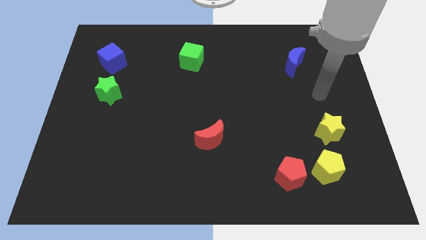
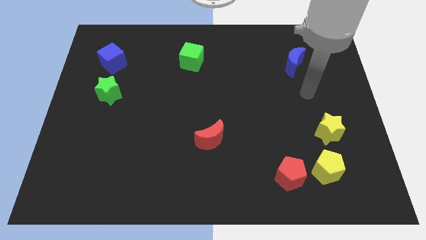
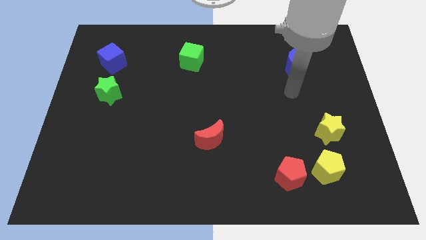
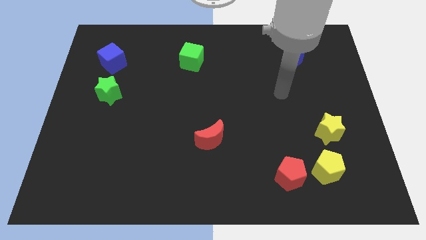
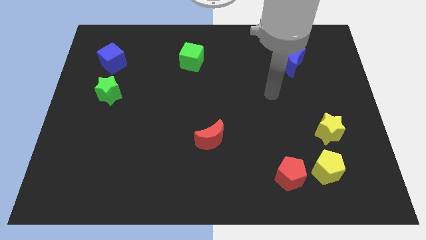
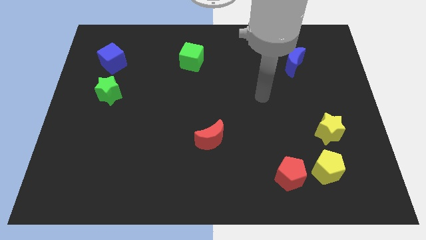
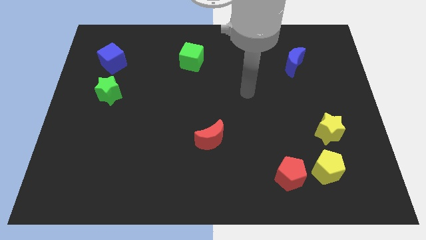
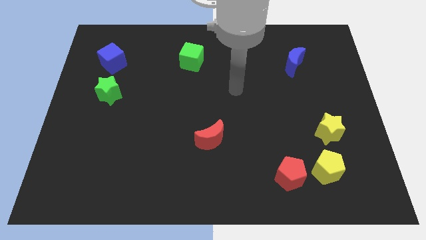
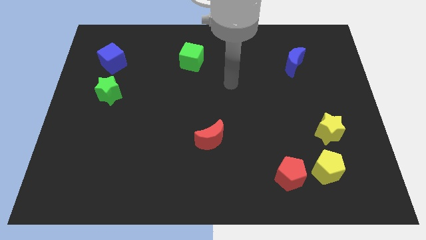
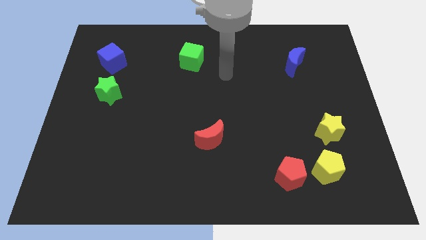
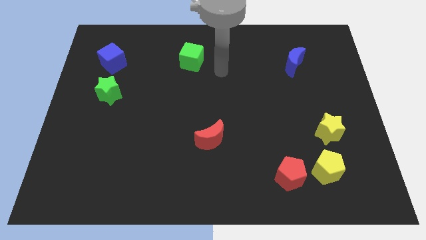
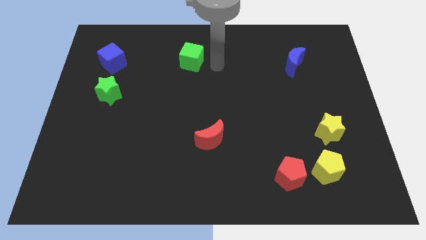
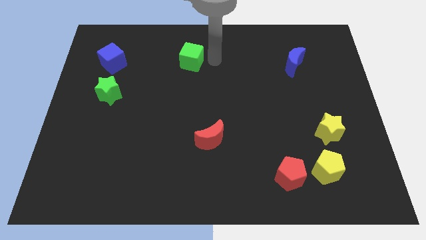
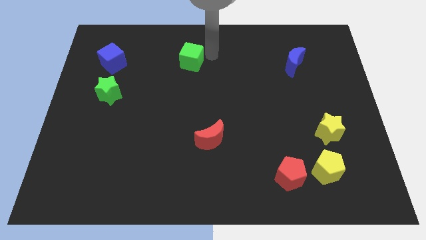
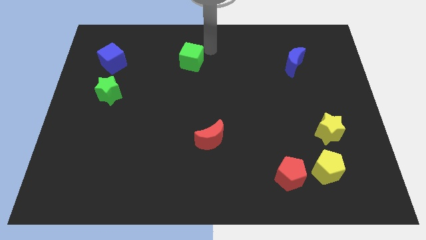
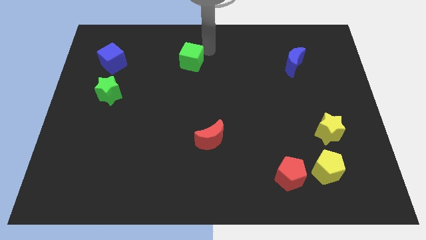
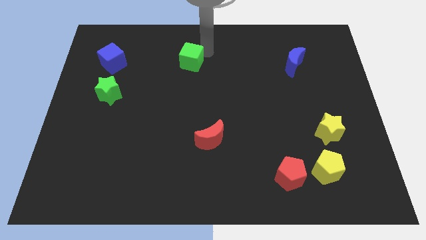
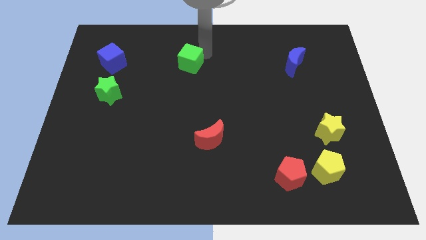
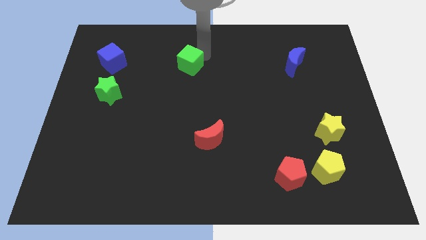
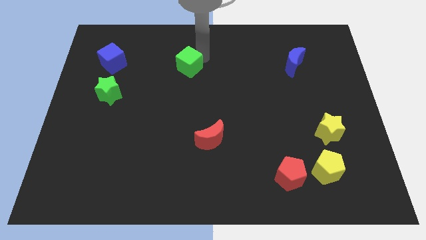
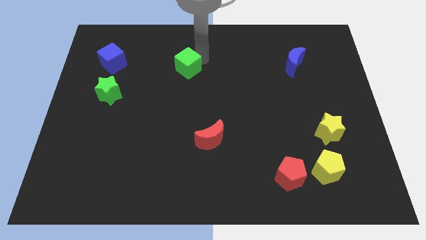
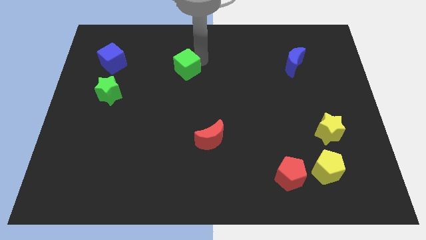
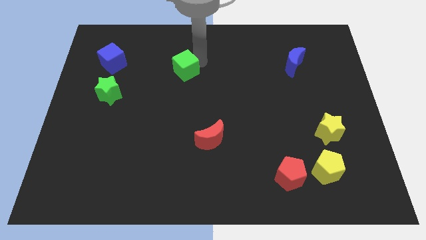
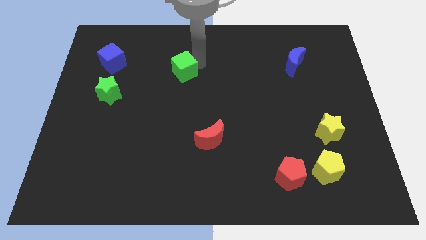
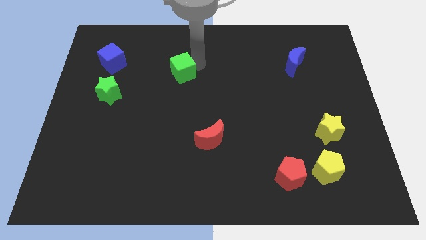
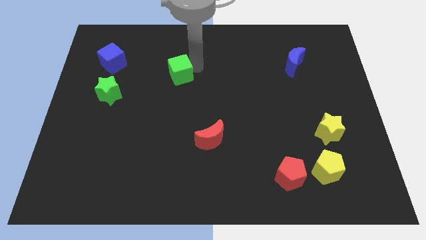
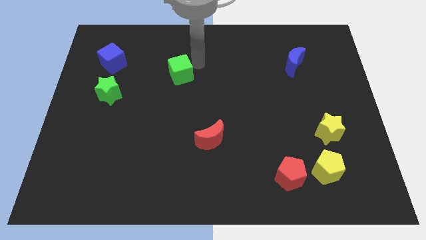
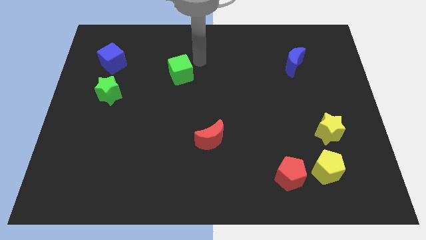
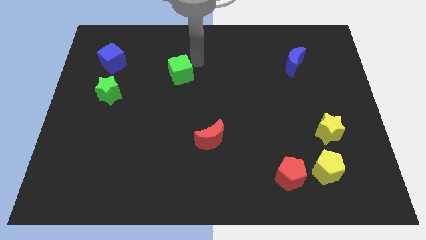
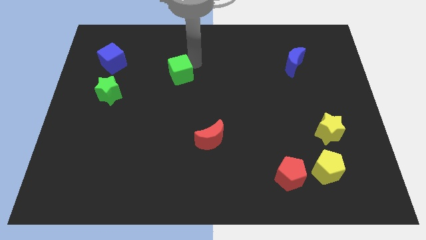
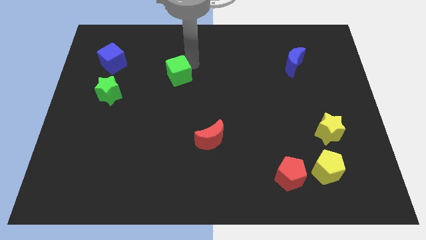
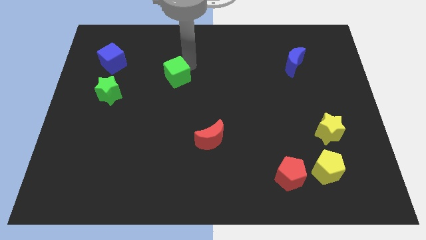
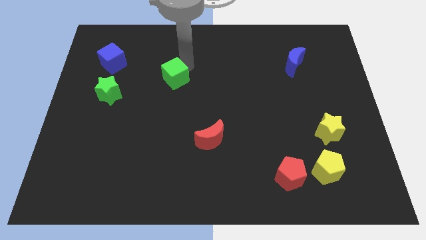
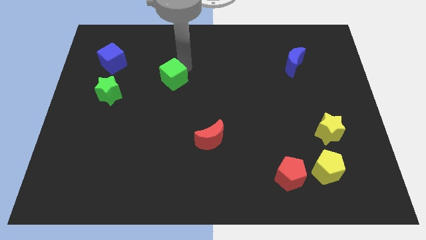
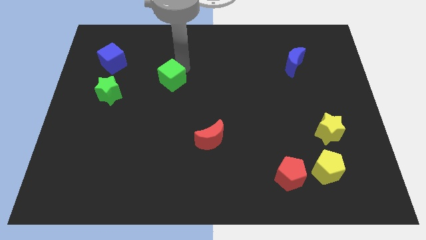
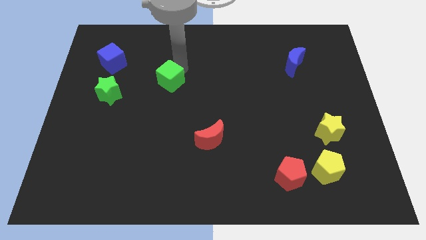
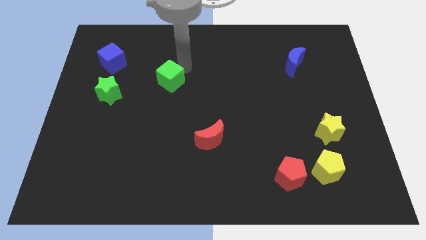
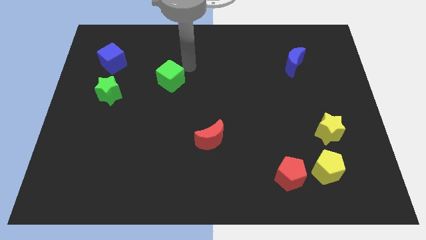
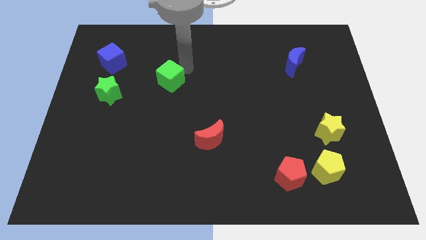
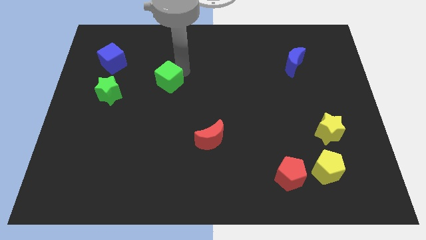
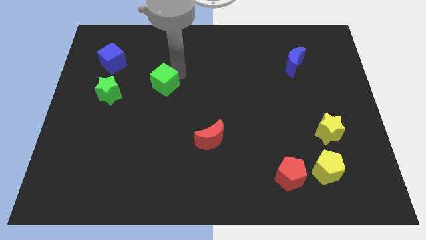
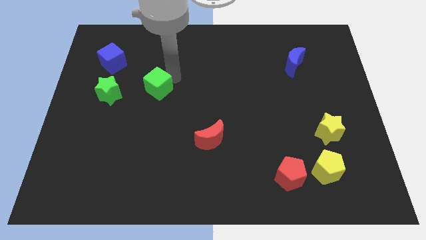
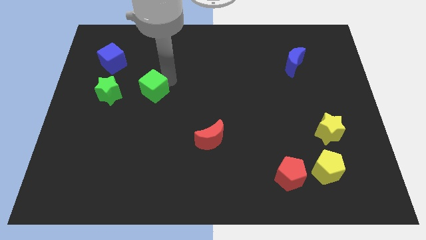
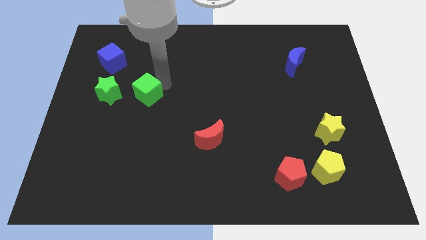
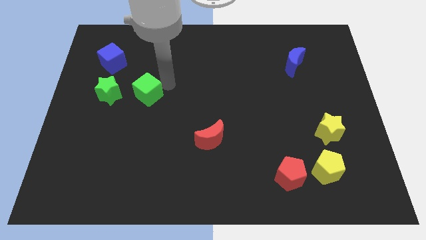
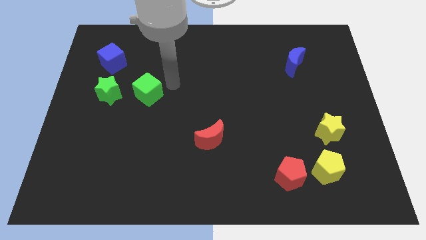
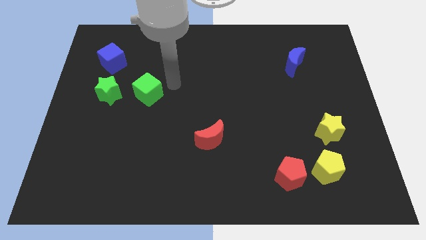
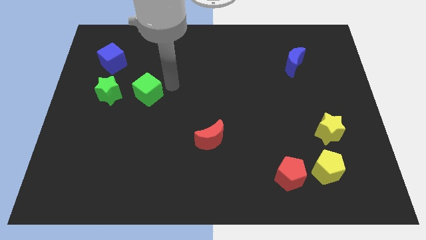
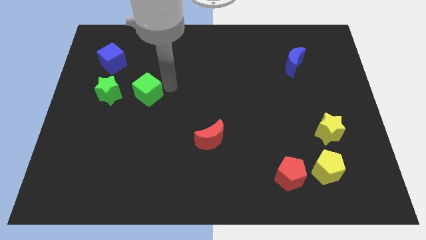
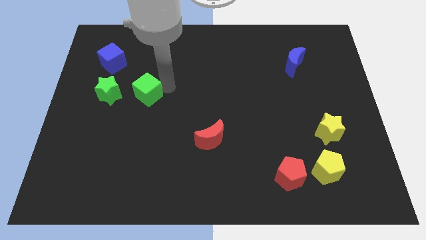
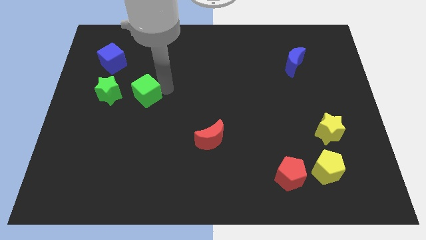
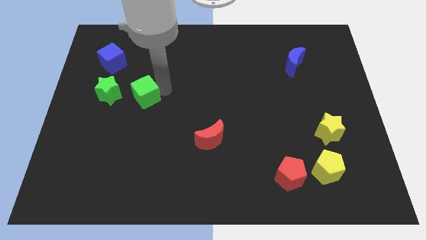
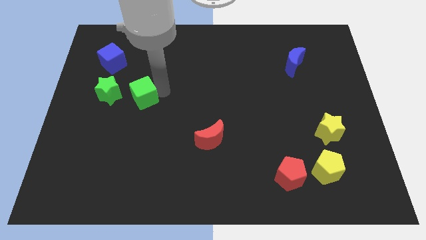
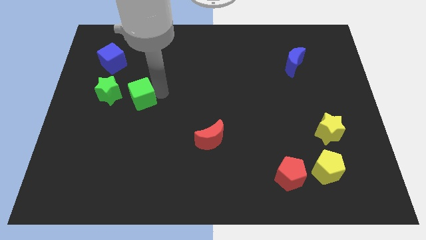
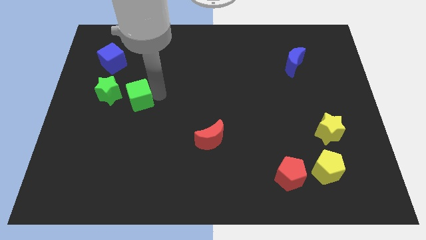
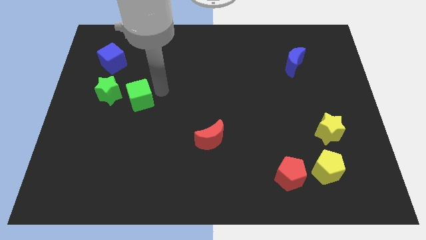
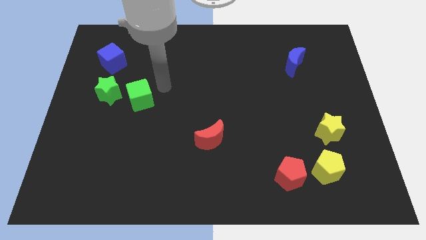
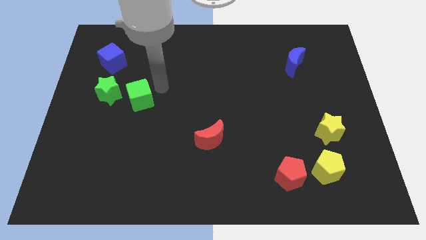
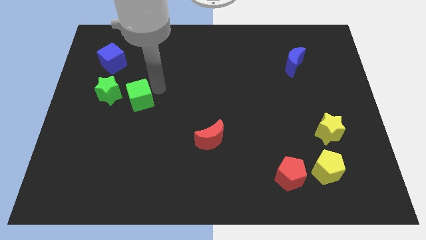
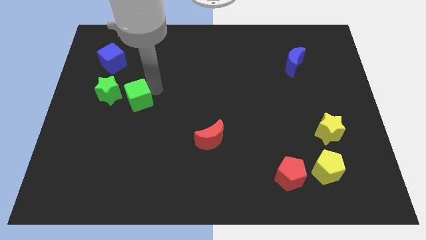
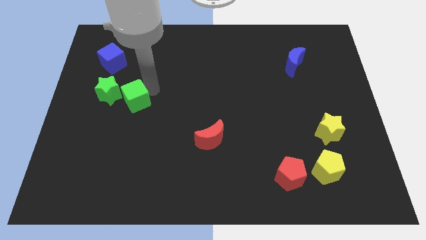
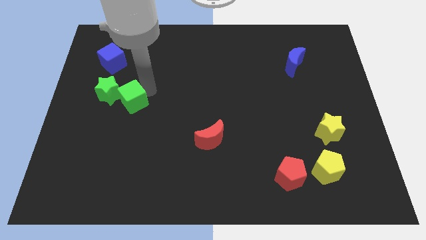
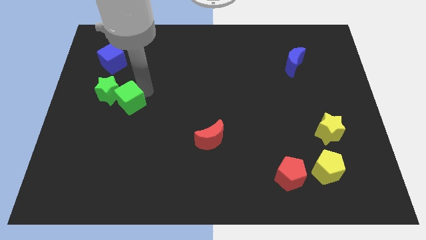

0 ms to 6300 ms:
slide the green cube downwards and to the left

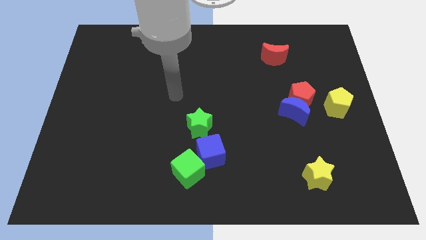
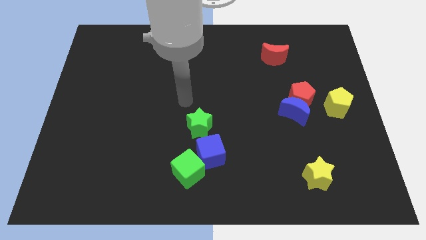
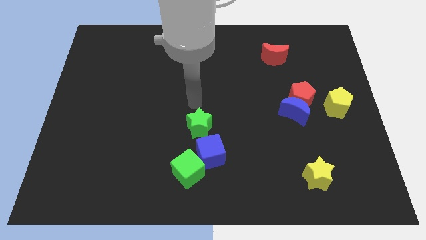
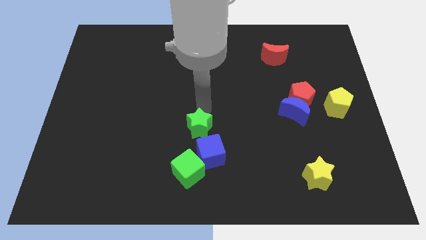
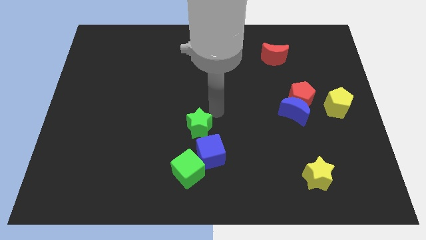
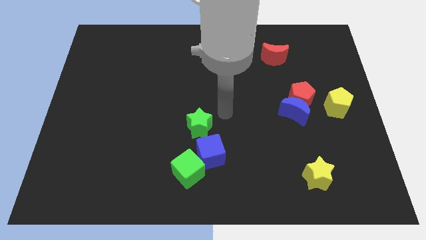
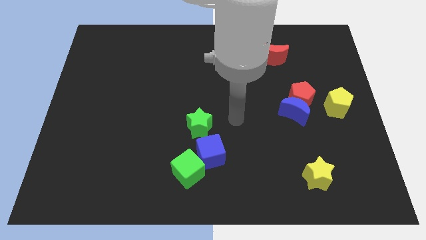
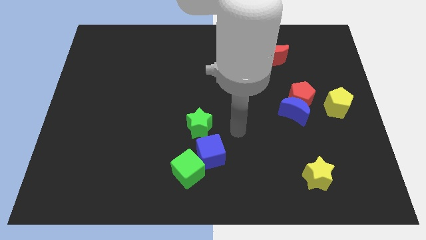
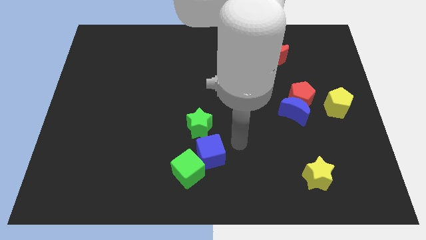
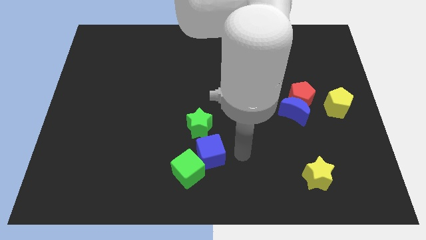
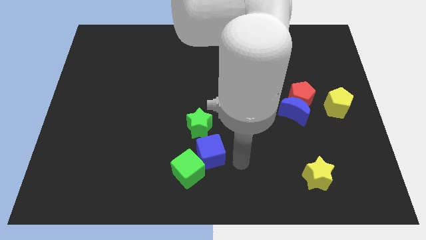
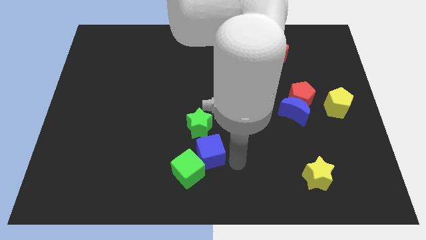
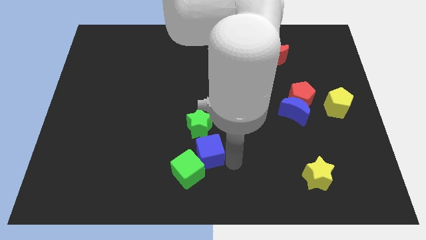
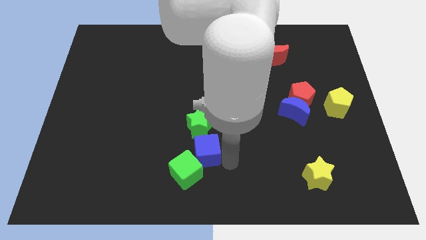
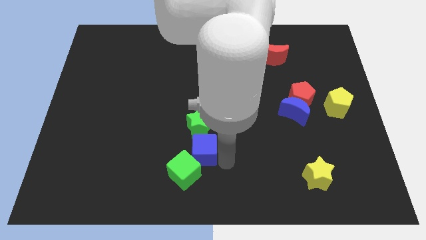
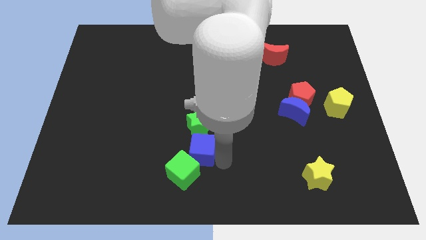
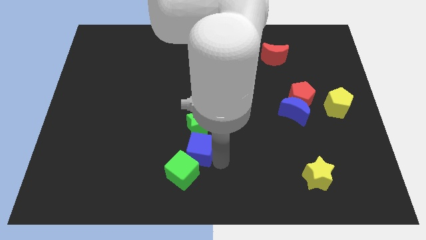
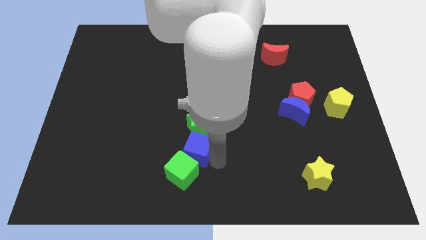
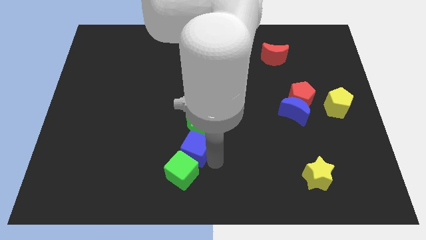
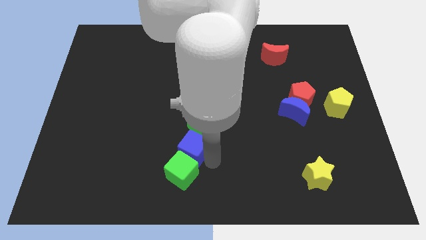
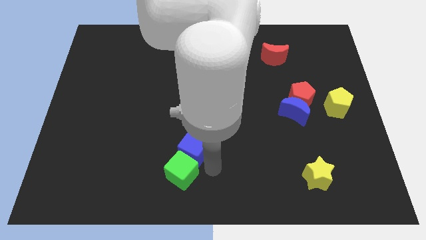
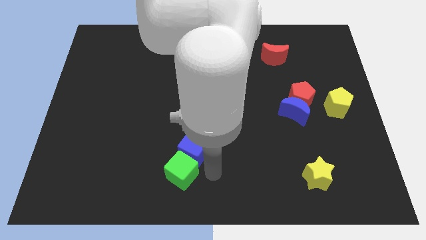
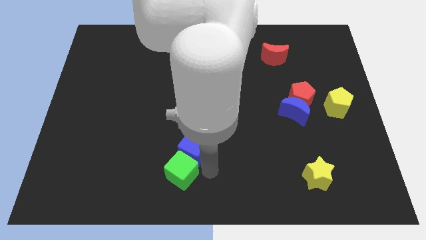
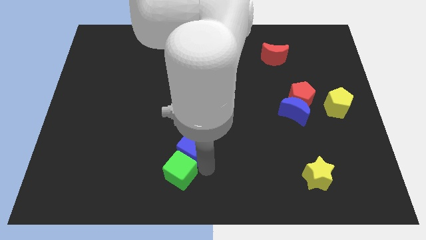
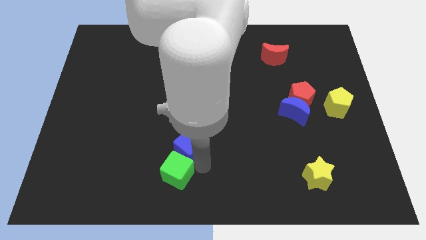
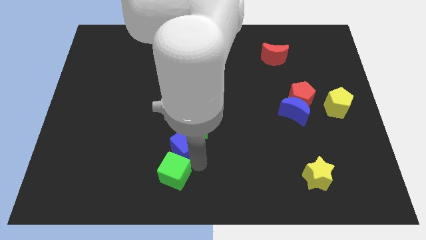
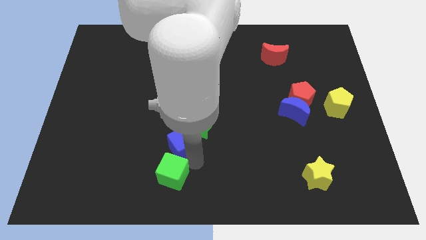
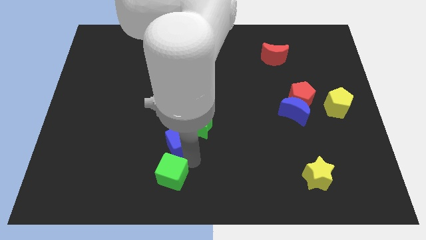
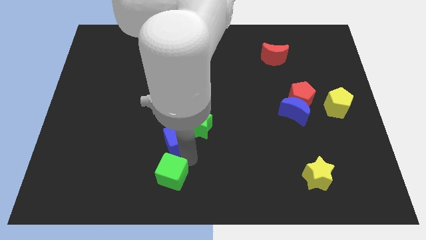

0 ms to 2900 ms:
slightly move the blue cube upwards and left diagonally
